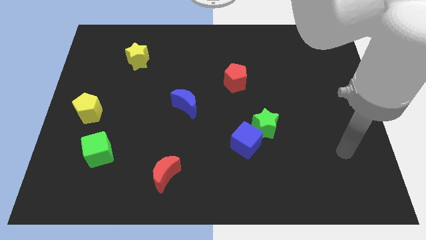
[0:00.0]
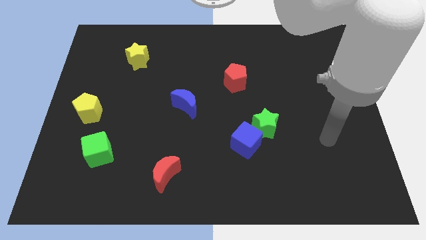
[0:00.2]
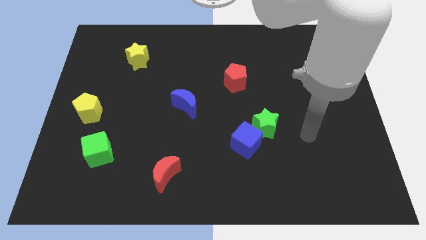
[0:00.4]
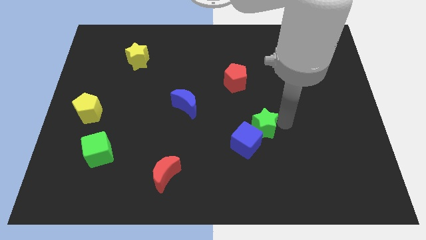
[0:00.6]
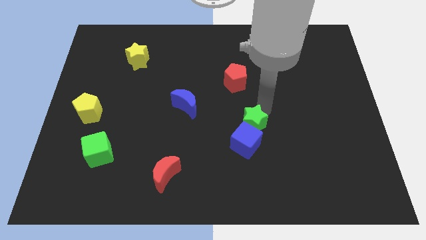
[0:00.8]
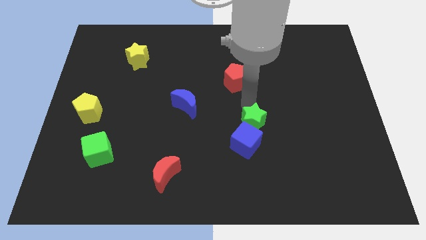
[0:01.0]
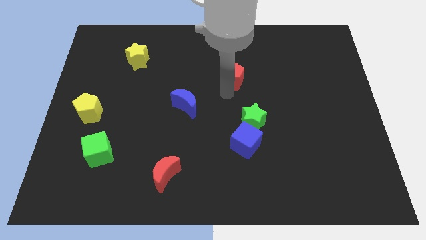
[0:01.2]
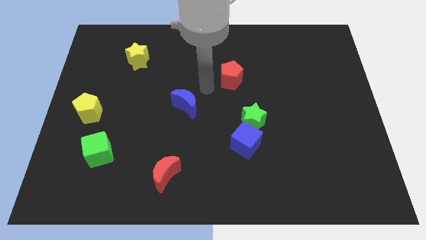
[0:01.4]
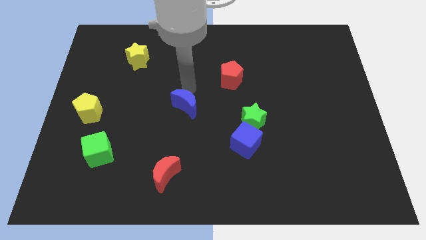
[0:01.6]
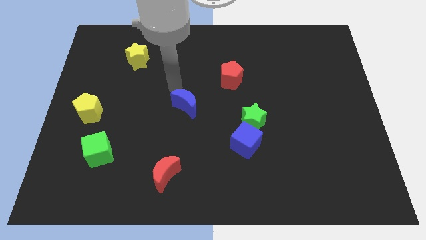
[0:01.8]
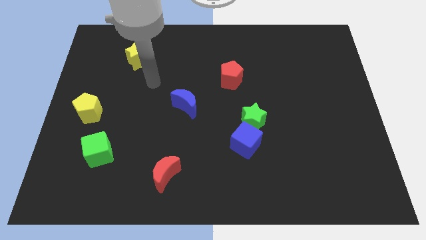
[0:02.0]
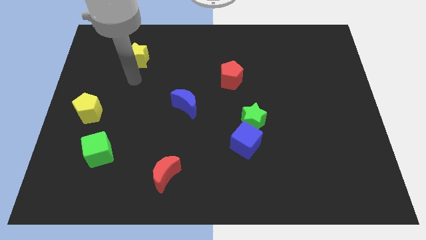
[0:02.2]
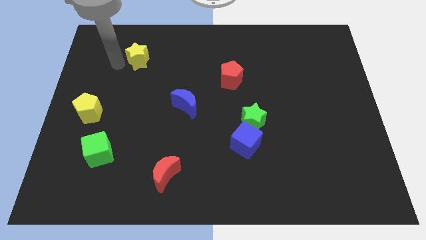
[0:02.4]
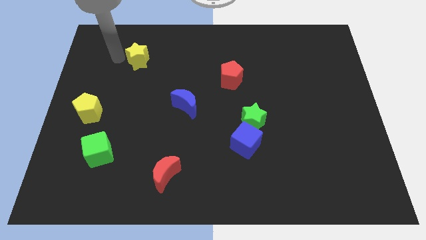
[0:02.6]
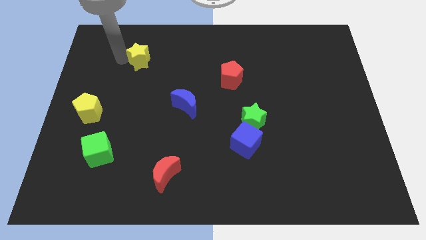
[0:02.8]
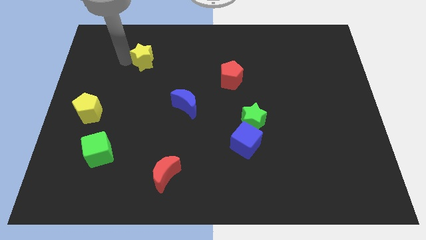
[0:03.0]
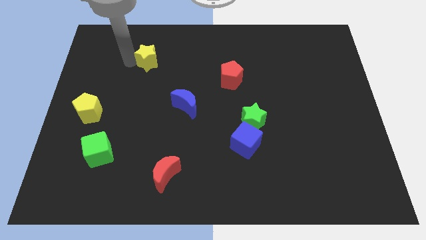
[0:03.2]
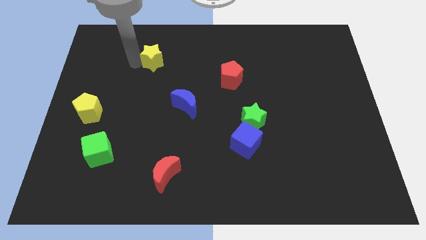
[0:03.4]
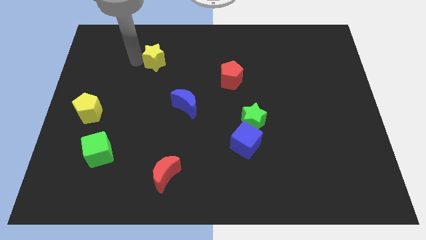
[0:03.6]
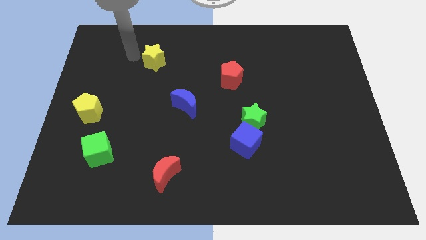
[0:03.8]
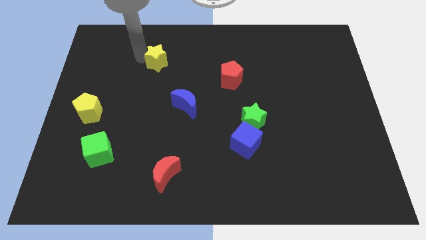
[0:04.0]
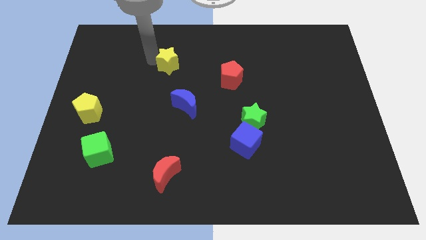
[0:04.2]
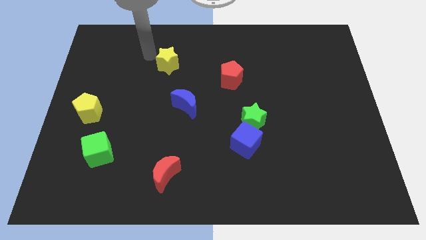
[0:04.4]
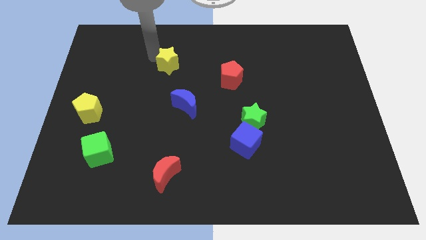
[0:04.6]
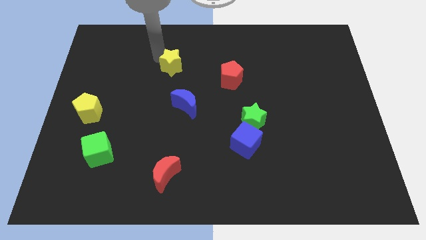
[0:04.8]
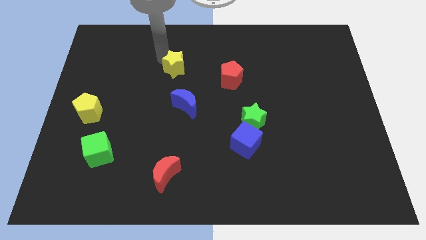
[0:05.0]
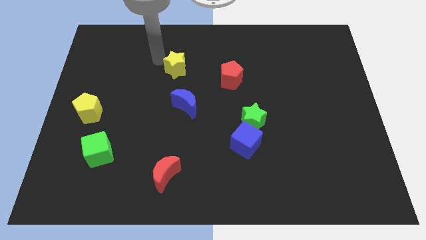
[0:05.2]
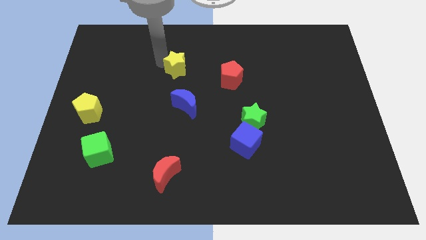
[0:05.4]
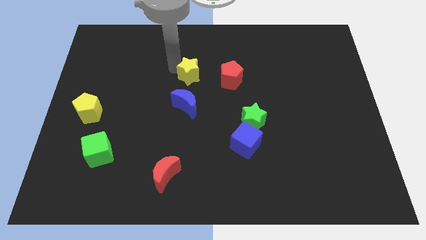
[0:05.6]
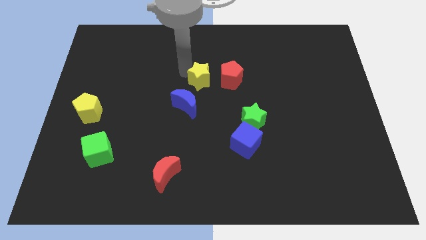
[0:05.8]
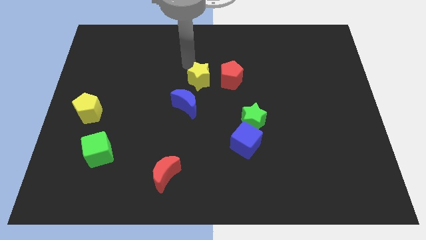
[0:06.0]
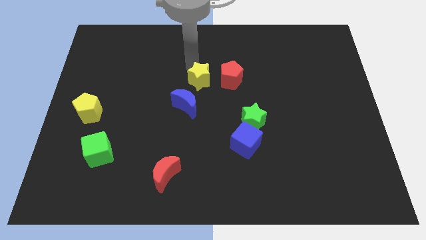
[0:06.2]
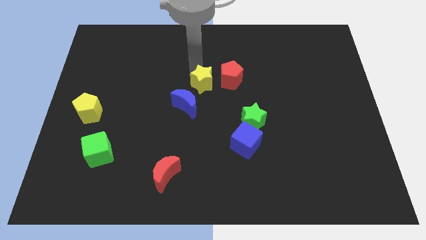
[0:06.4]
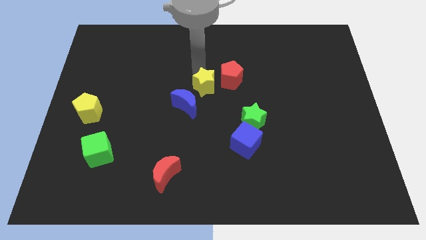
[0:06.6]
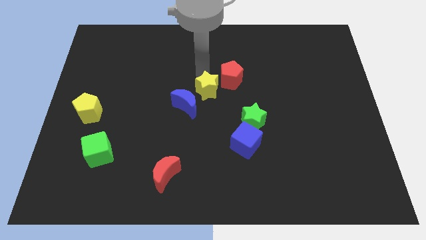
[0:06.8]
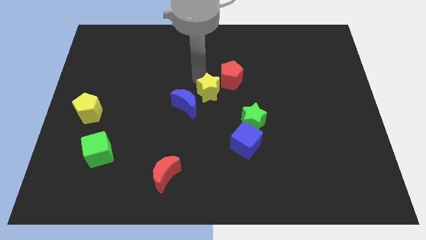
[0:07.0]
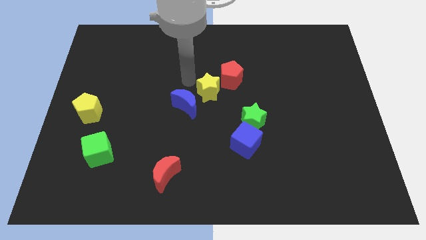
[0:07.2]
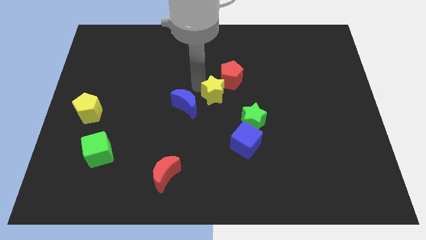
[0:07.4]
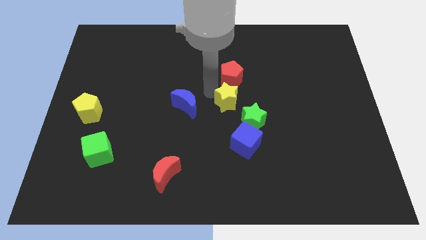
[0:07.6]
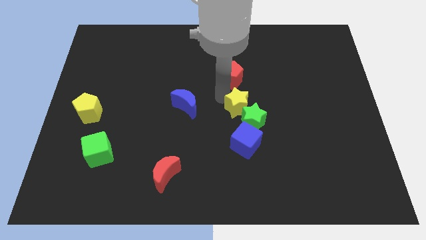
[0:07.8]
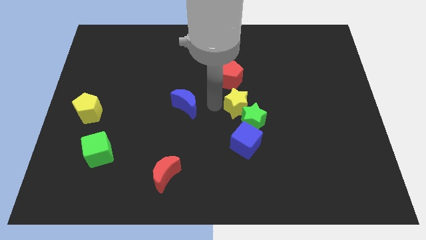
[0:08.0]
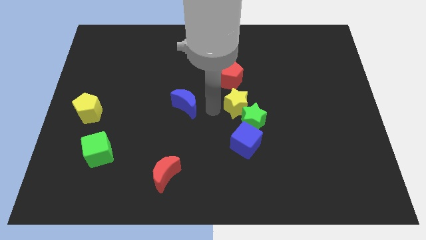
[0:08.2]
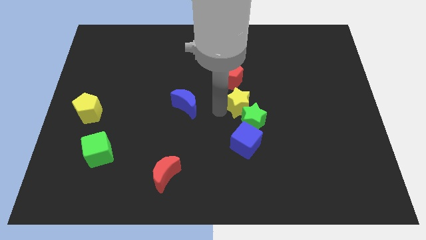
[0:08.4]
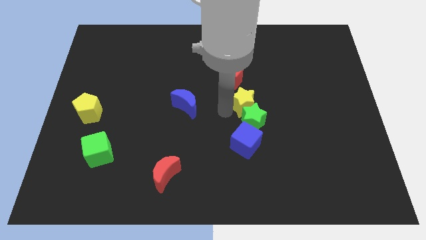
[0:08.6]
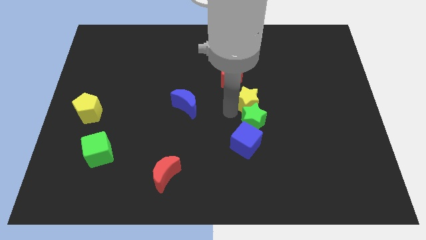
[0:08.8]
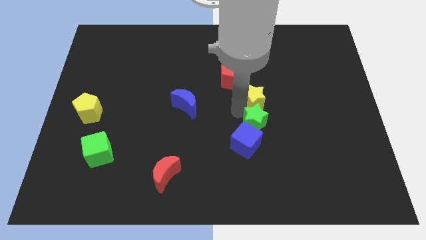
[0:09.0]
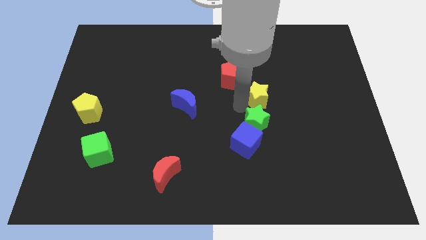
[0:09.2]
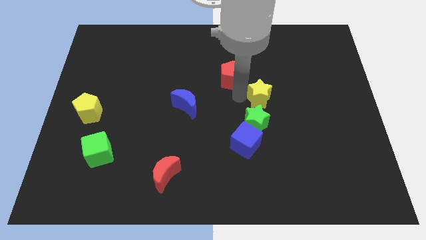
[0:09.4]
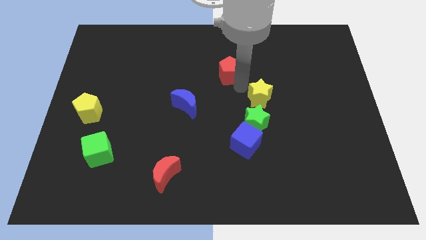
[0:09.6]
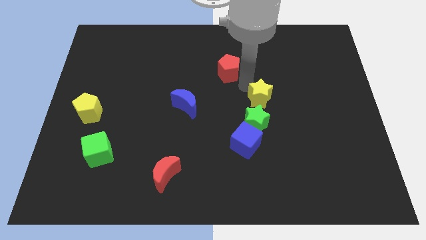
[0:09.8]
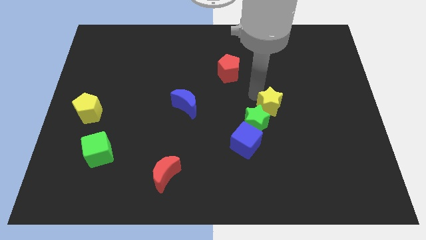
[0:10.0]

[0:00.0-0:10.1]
slide the yellow star to the right of the green star

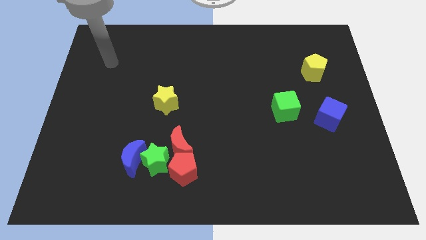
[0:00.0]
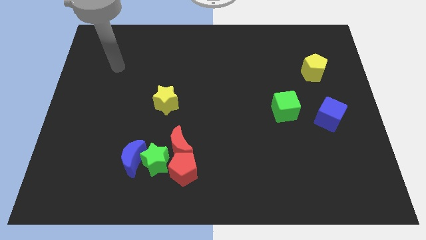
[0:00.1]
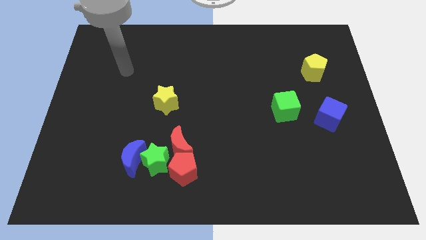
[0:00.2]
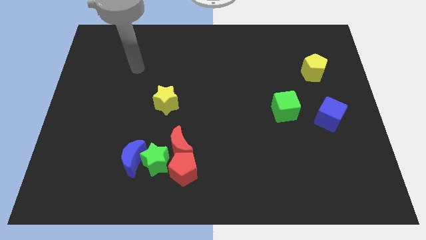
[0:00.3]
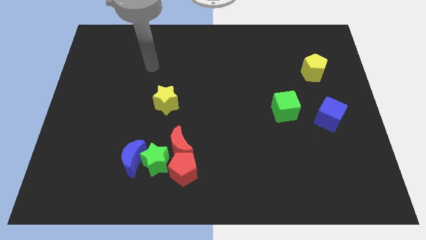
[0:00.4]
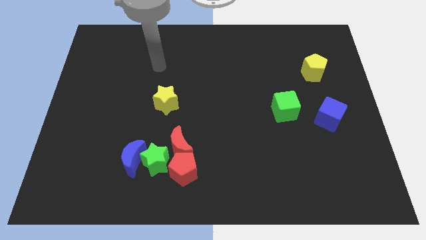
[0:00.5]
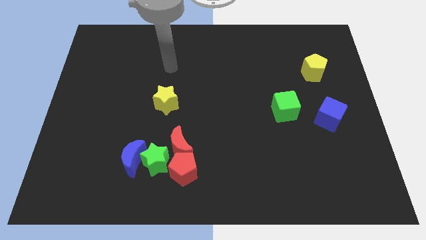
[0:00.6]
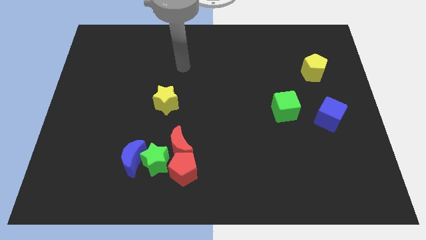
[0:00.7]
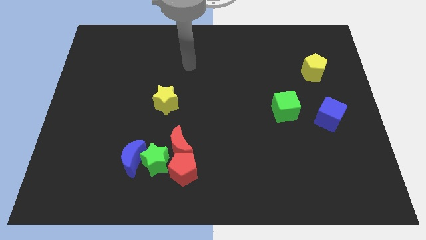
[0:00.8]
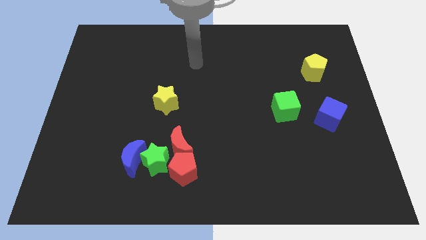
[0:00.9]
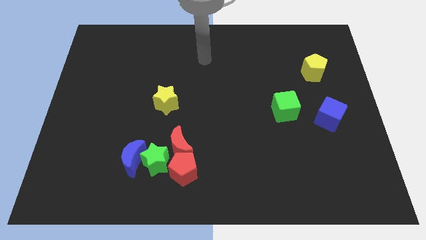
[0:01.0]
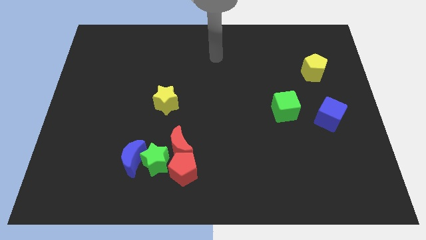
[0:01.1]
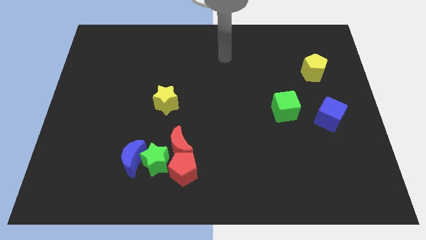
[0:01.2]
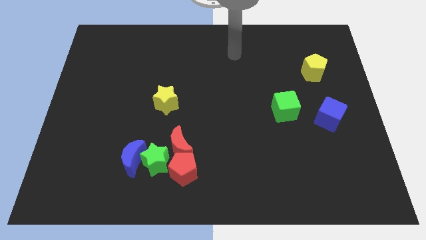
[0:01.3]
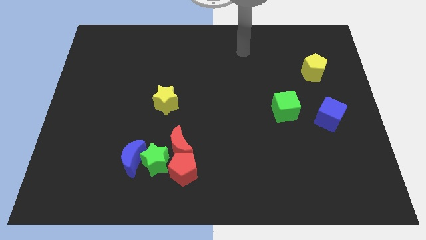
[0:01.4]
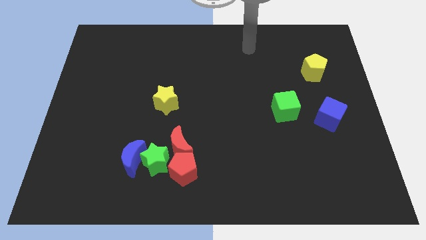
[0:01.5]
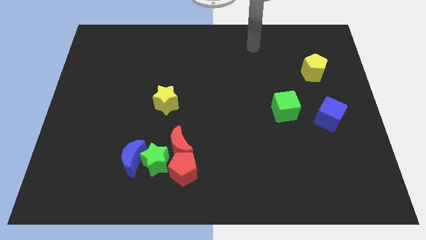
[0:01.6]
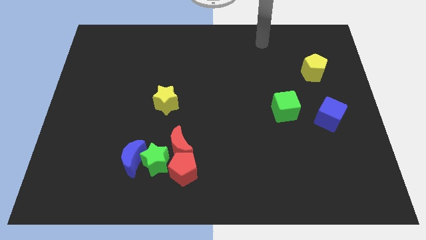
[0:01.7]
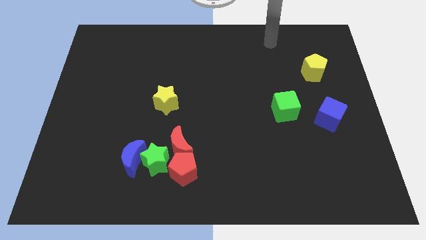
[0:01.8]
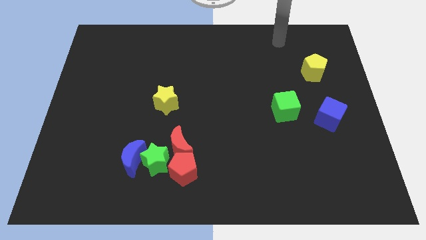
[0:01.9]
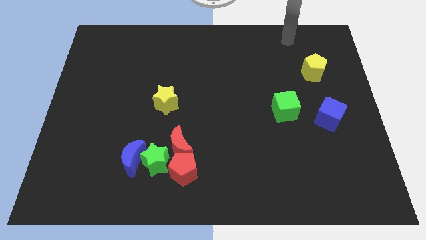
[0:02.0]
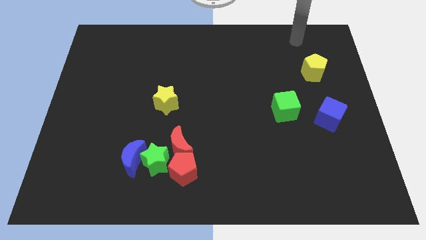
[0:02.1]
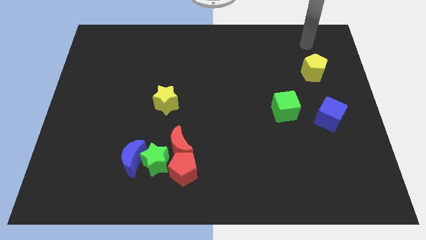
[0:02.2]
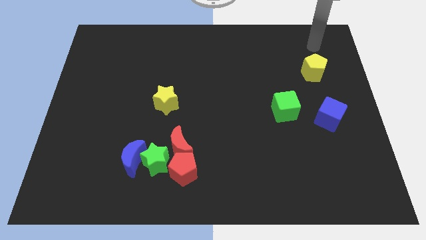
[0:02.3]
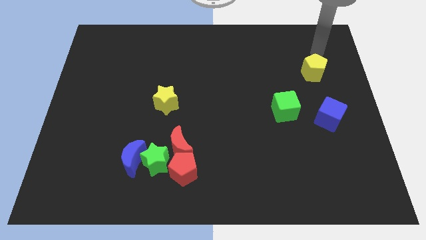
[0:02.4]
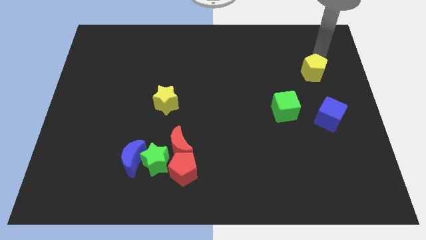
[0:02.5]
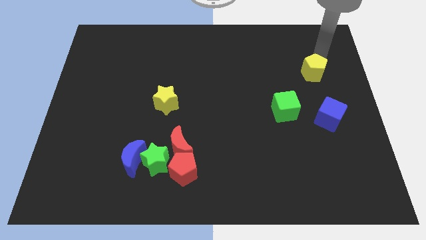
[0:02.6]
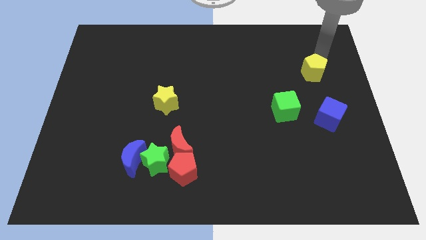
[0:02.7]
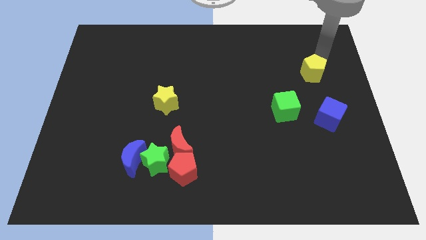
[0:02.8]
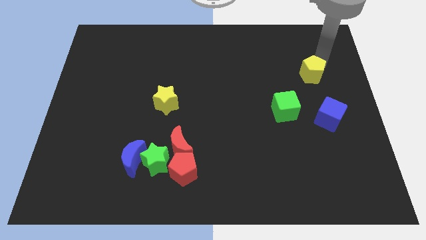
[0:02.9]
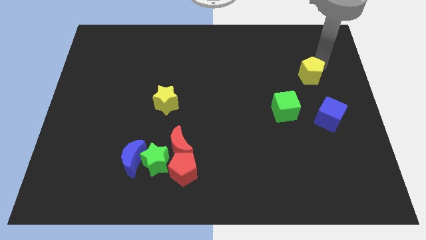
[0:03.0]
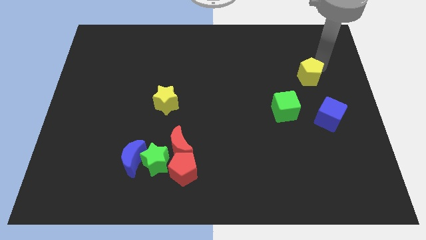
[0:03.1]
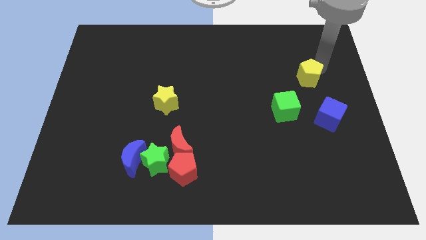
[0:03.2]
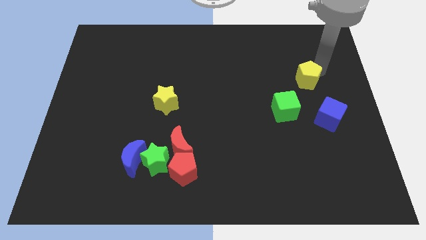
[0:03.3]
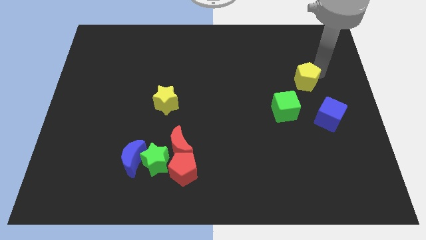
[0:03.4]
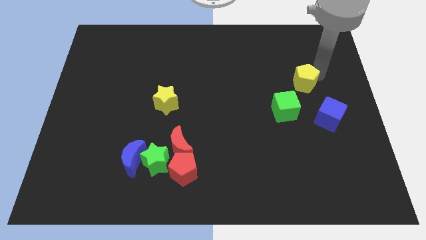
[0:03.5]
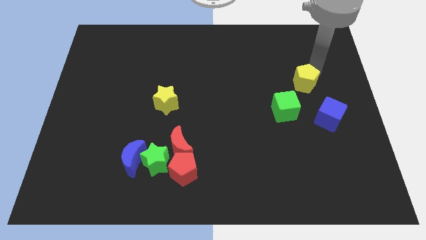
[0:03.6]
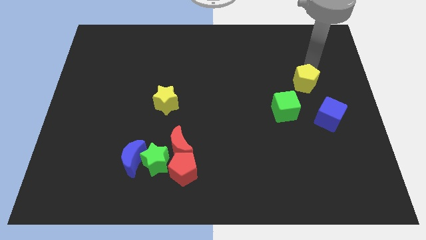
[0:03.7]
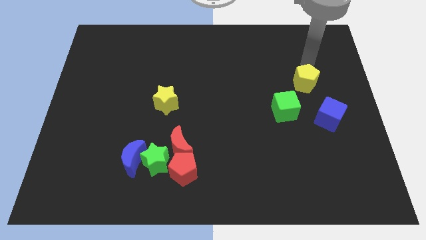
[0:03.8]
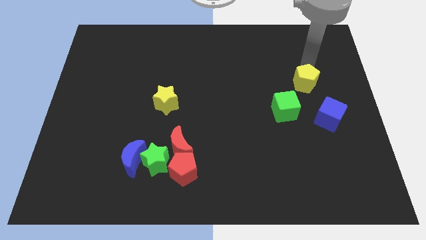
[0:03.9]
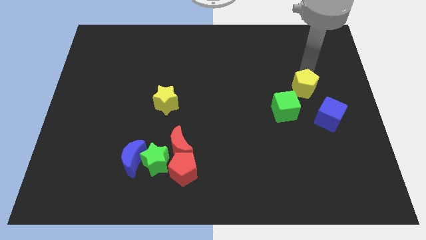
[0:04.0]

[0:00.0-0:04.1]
move the yellow pentagon to the top left side of the blue cube
